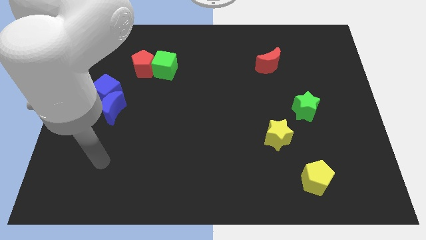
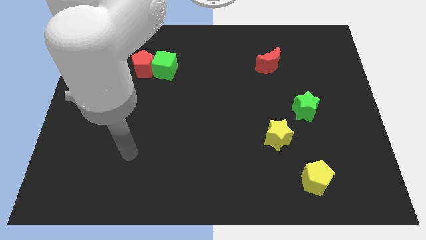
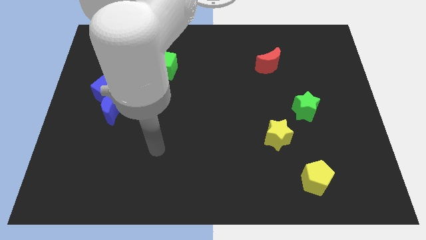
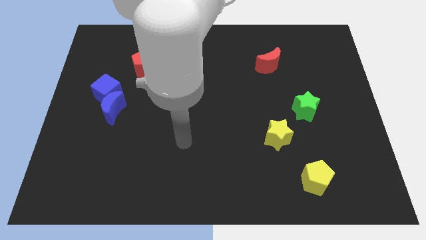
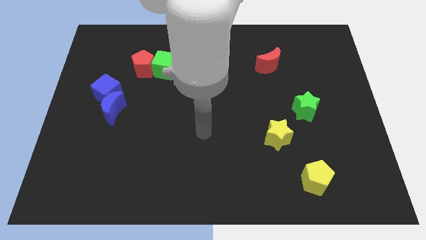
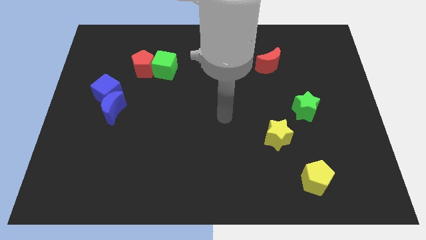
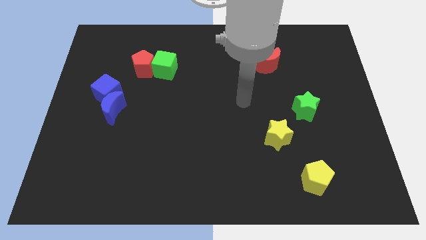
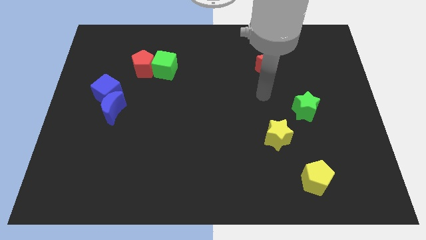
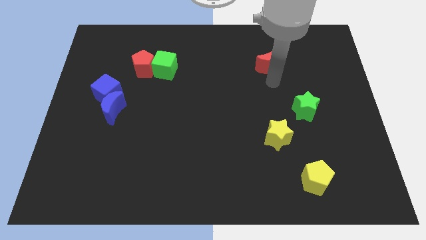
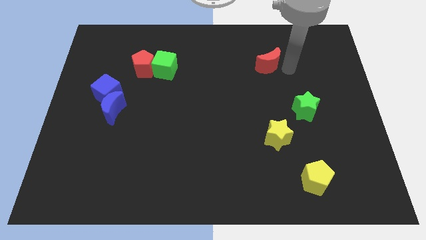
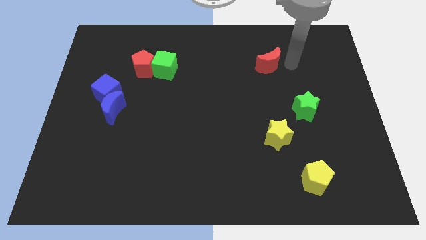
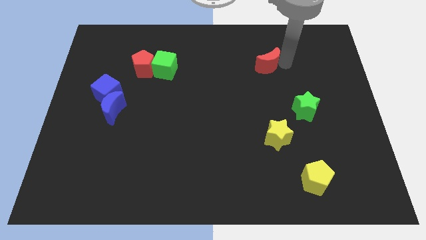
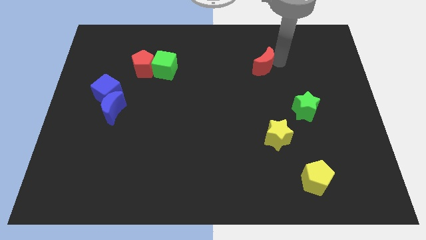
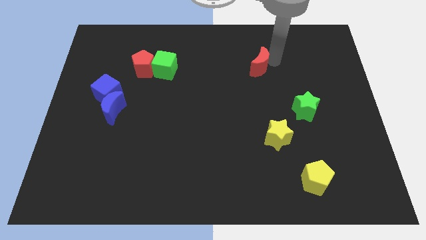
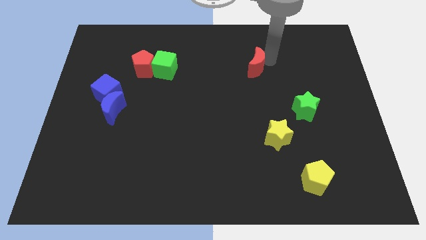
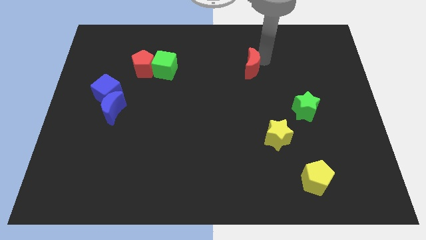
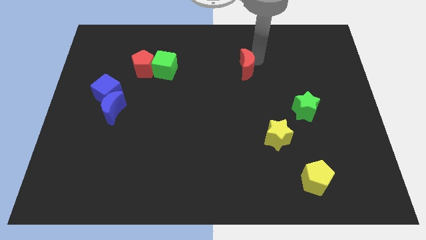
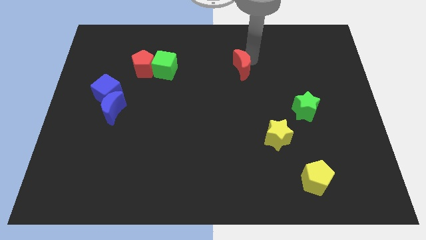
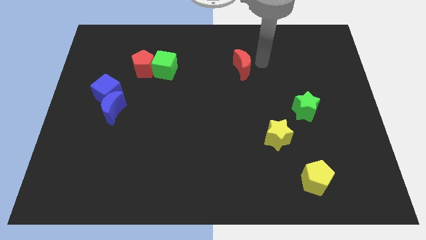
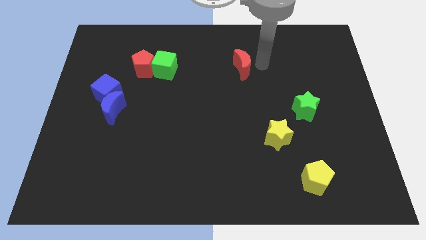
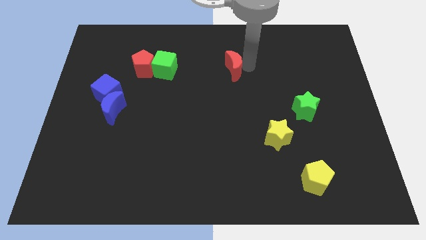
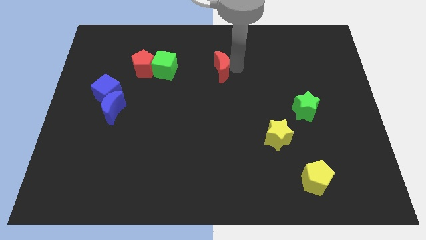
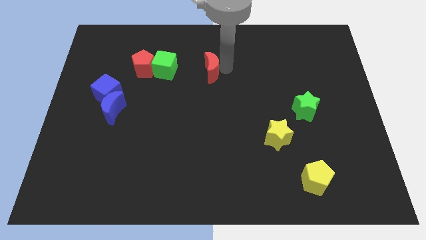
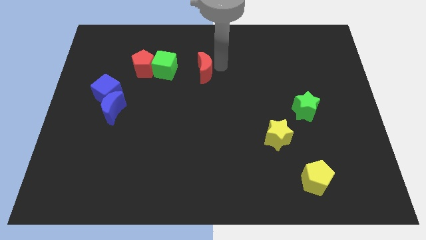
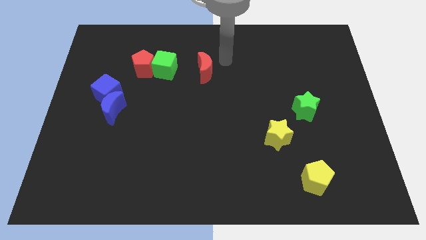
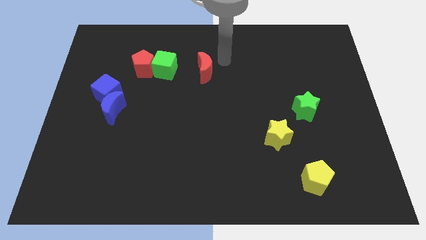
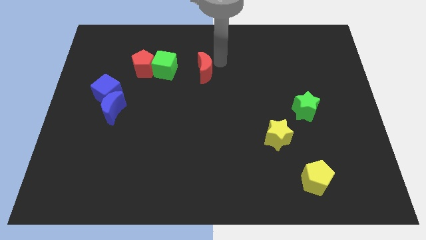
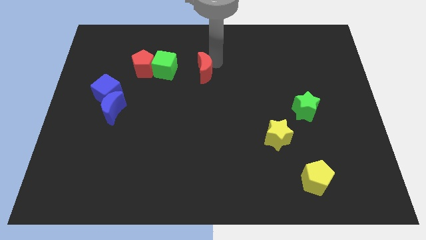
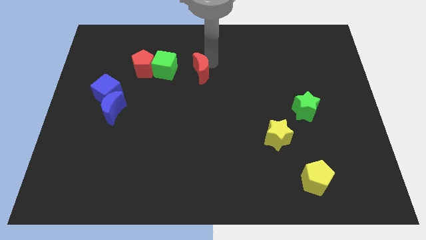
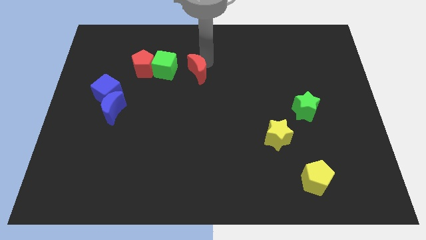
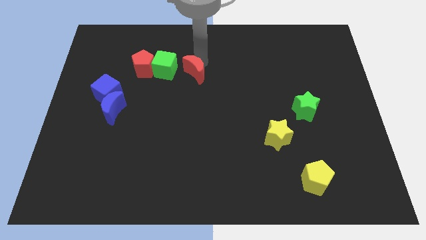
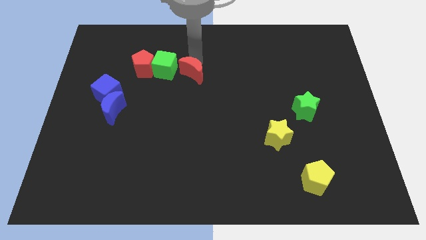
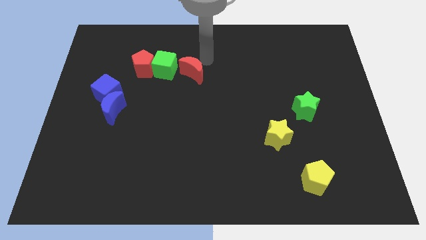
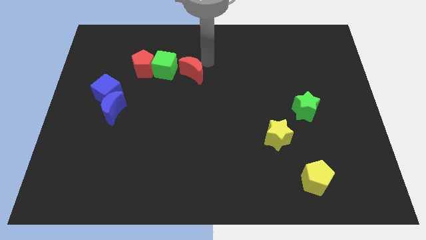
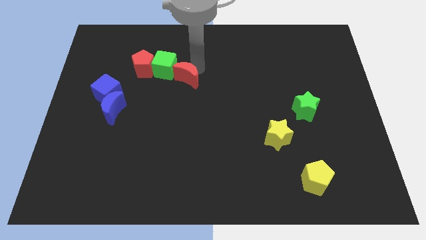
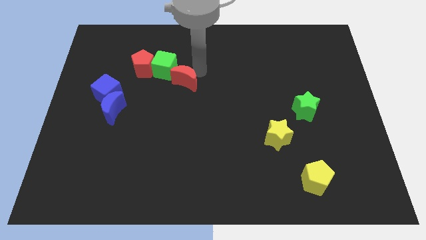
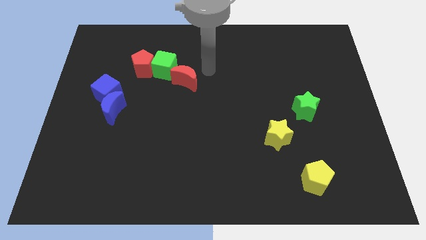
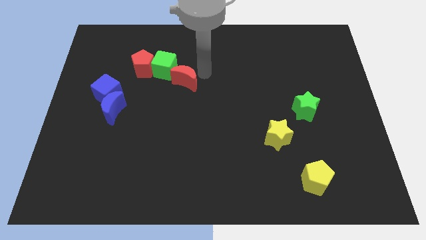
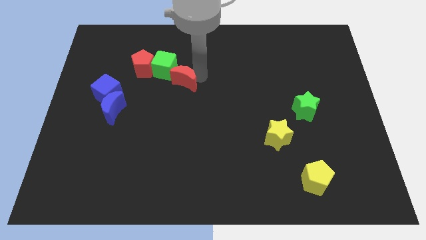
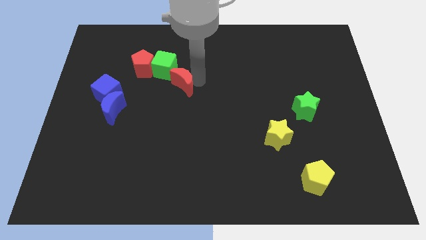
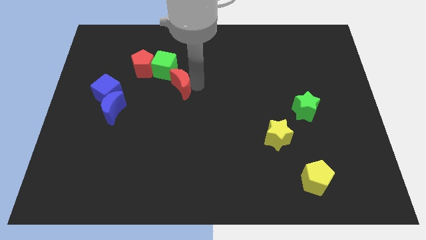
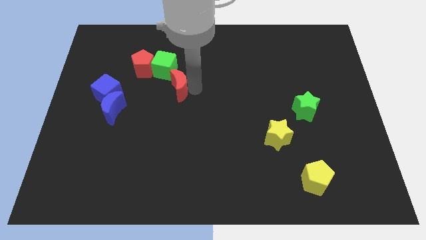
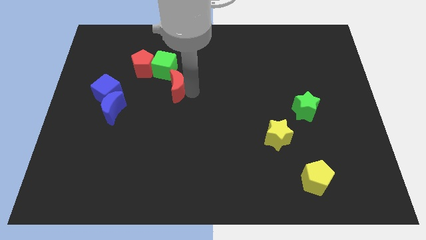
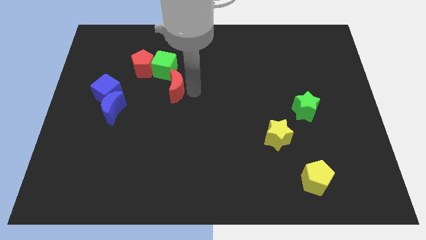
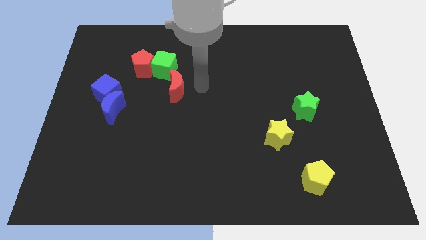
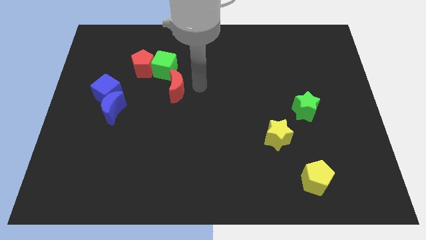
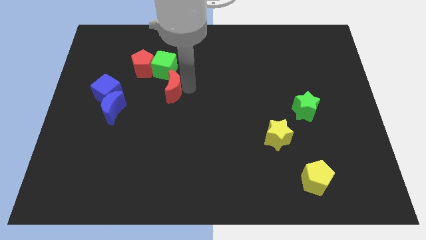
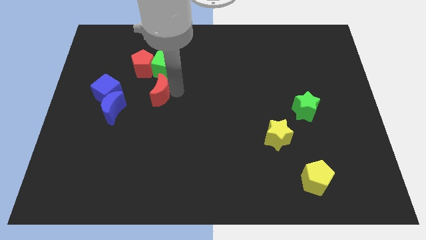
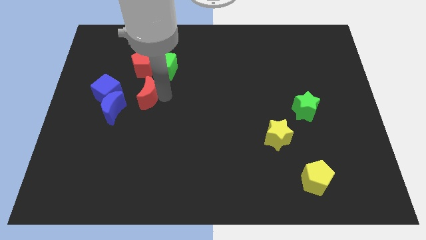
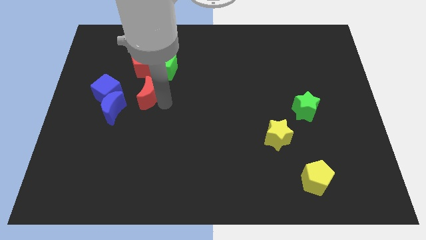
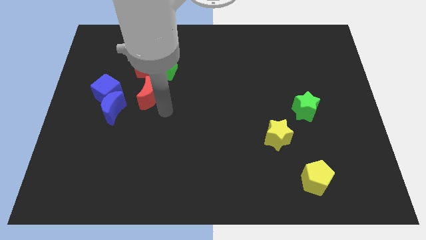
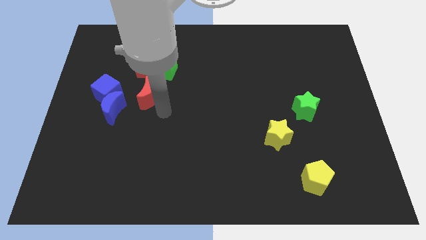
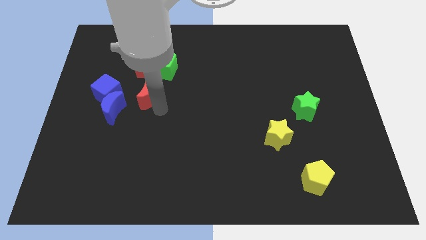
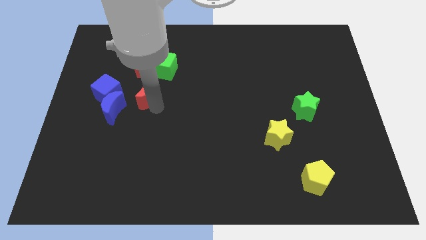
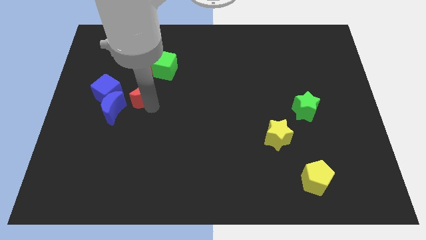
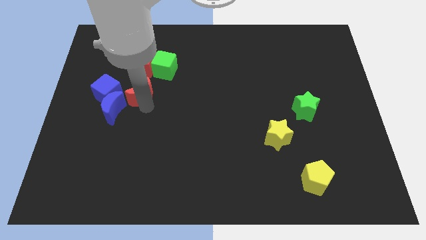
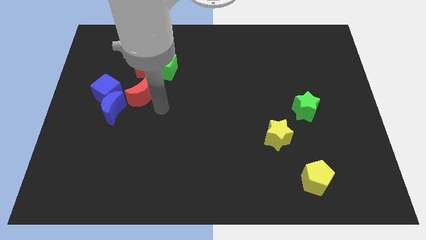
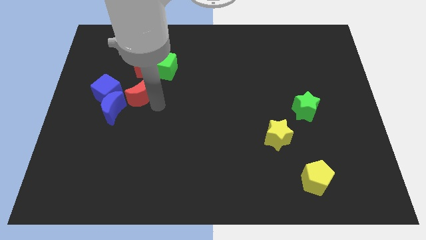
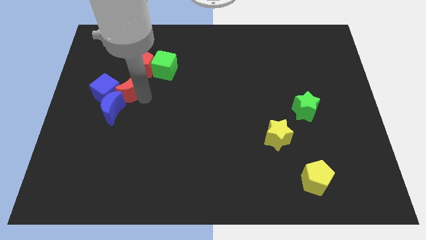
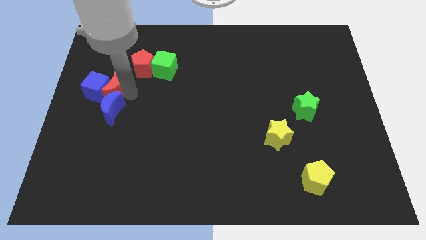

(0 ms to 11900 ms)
push the red moon to the top left side of the blue moon

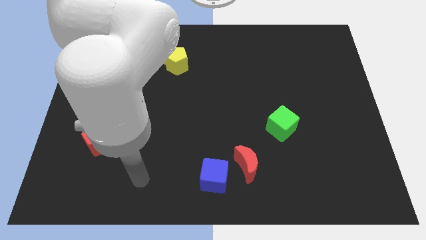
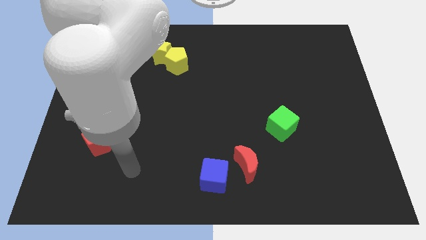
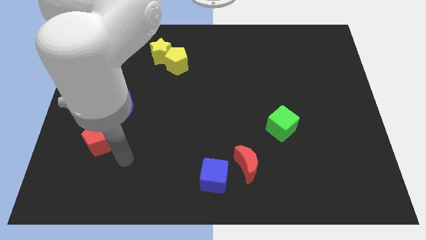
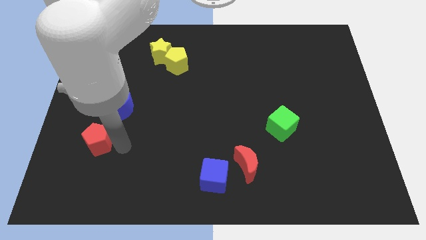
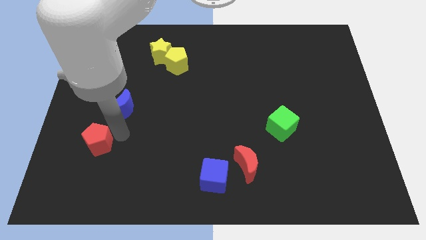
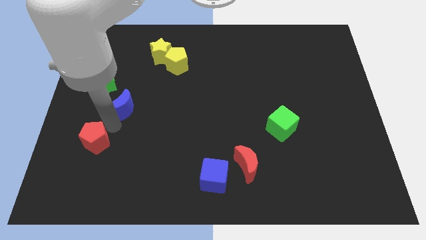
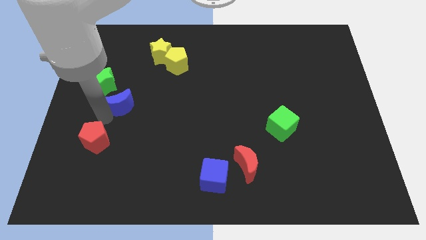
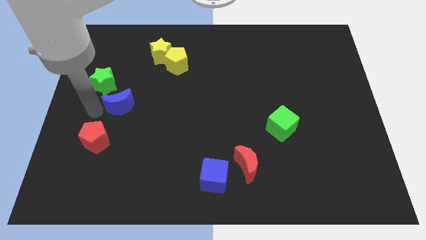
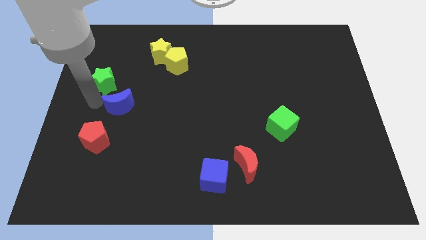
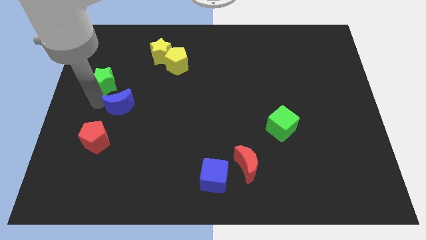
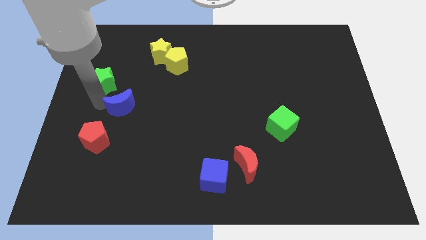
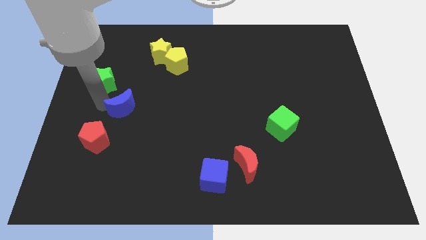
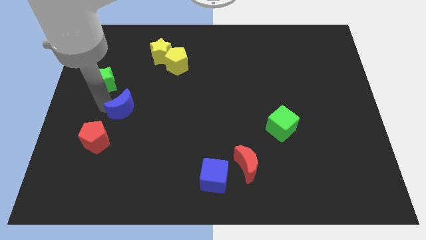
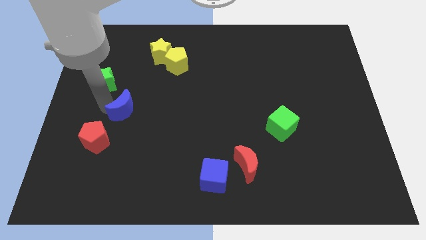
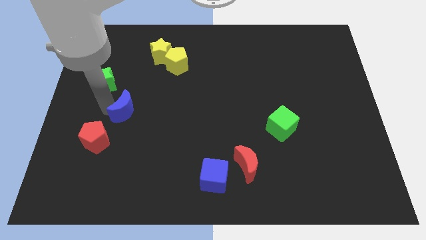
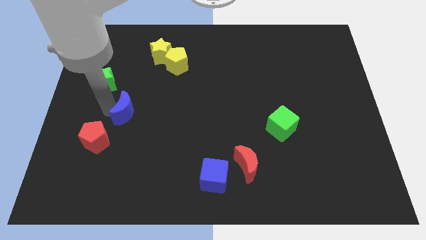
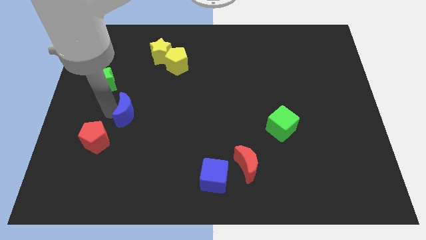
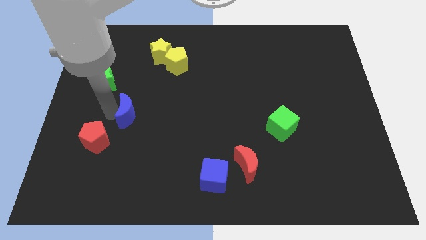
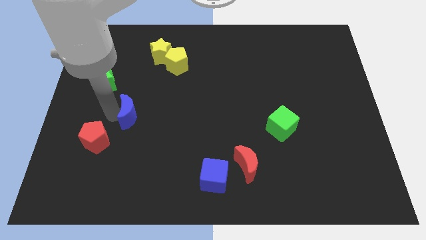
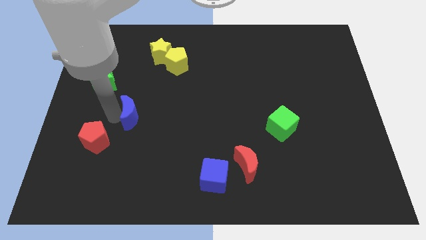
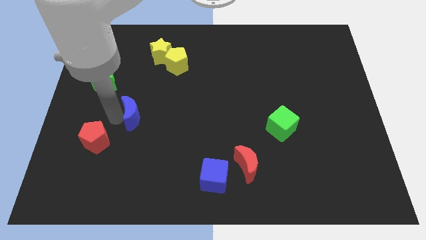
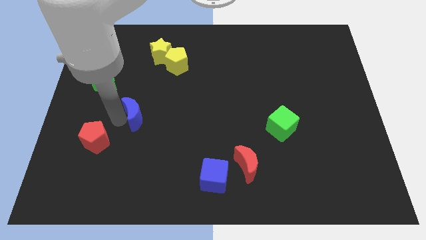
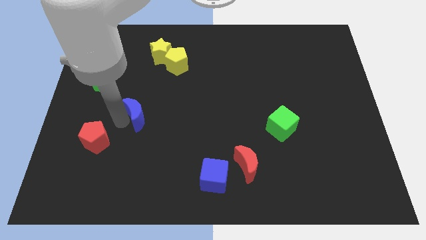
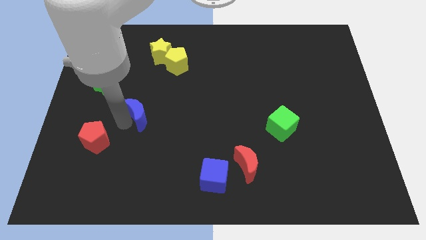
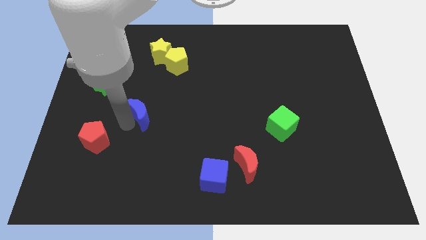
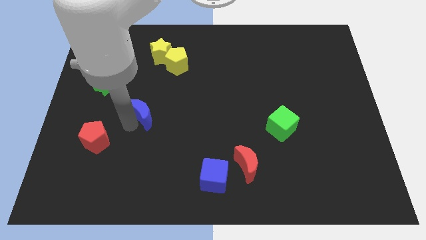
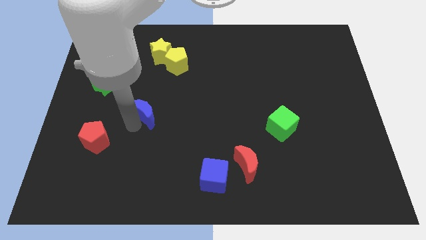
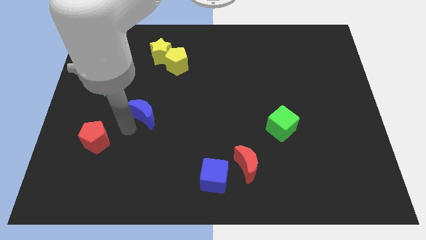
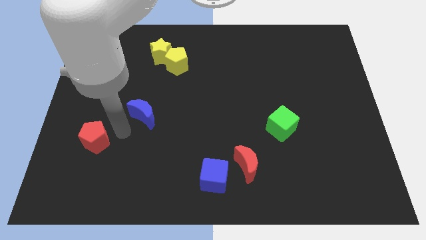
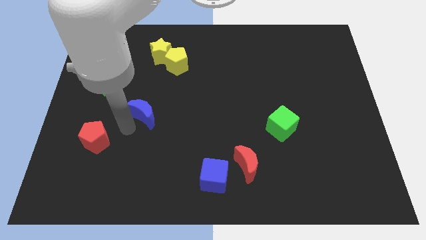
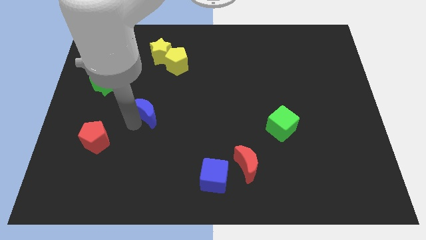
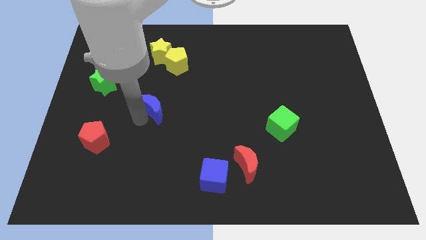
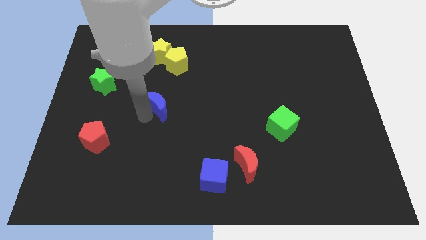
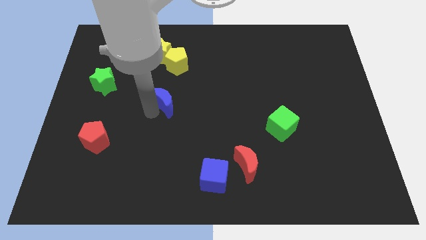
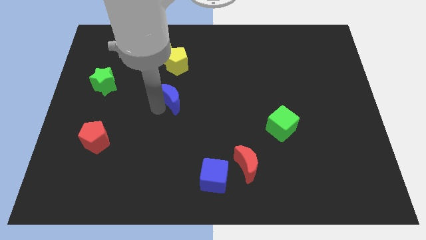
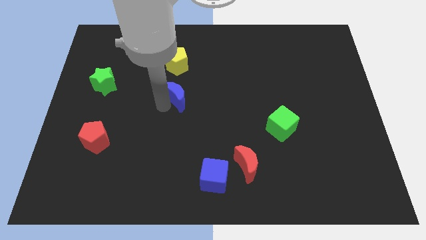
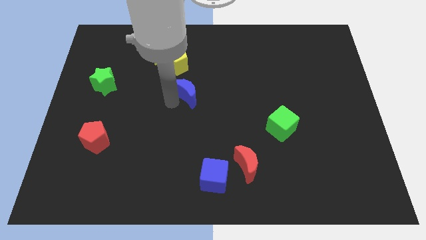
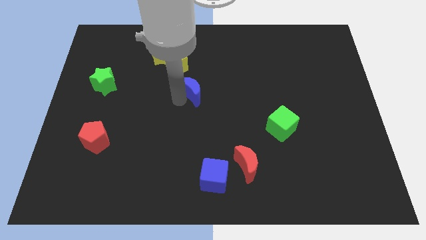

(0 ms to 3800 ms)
move the blue moon diagonally down and to the right of the yellow pentagon
